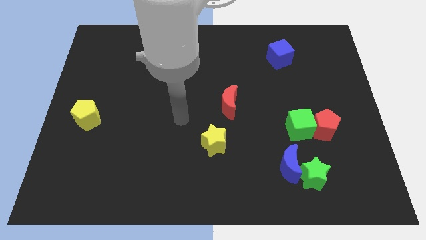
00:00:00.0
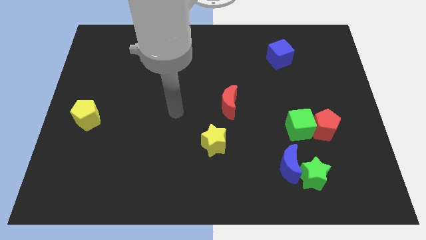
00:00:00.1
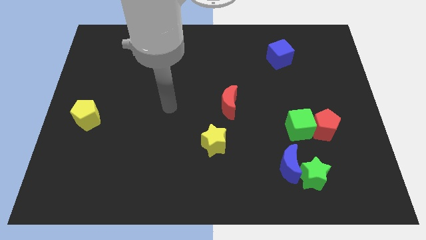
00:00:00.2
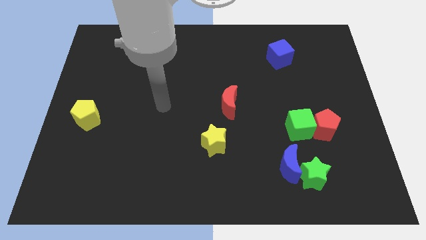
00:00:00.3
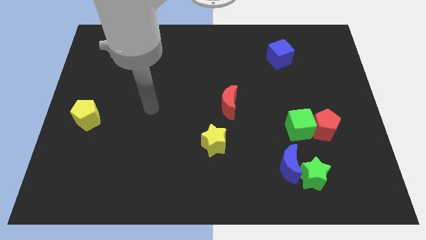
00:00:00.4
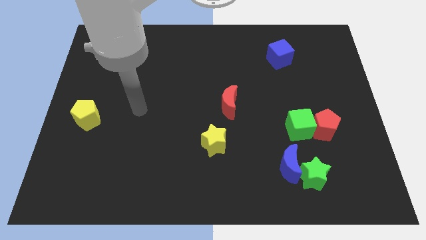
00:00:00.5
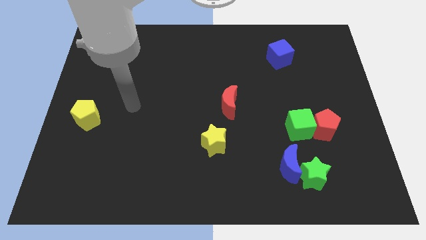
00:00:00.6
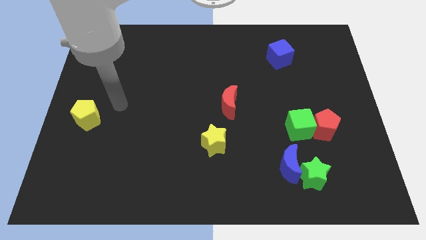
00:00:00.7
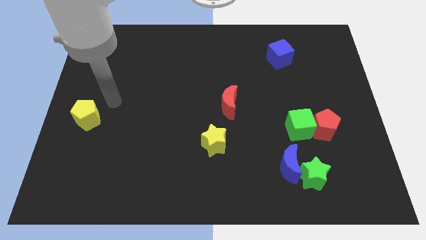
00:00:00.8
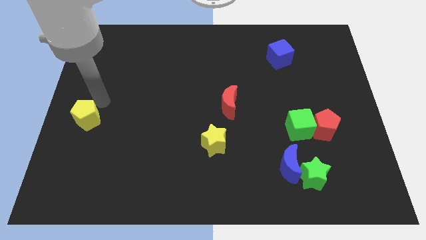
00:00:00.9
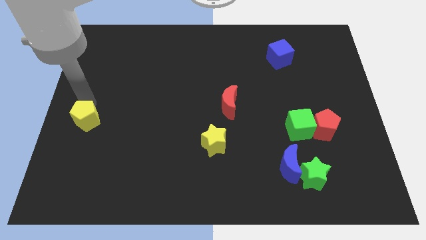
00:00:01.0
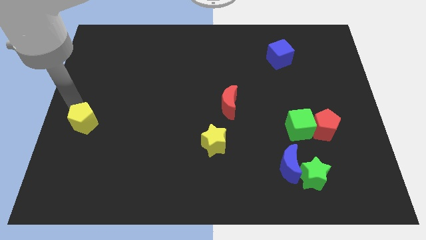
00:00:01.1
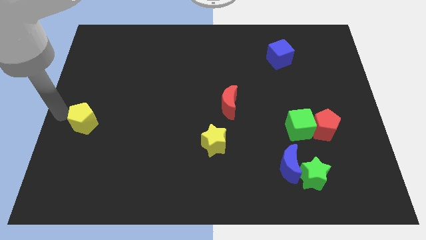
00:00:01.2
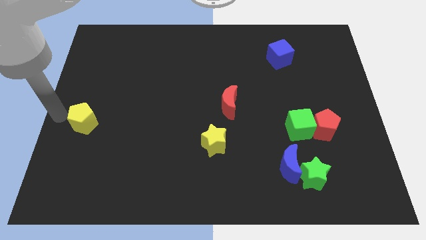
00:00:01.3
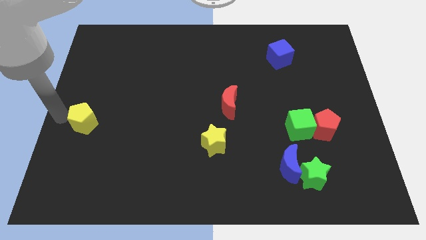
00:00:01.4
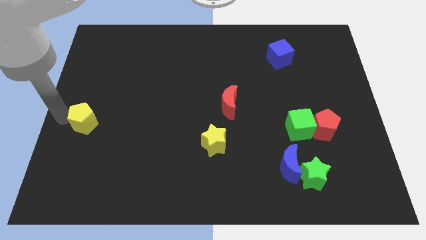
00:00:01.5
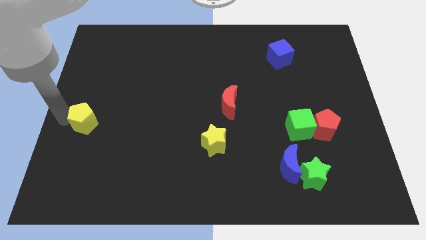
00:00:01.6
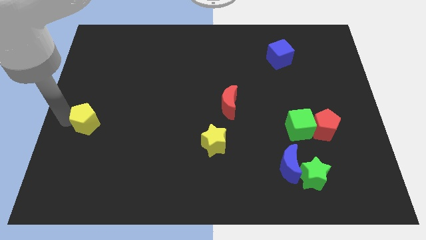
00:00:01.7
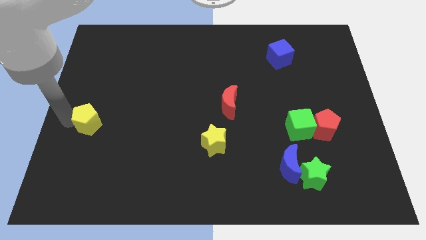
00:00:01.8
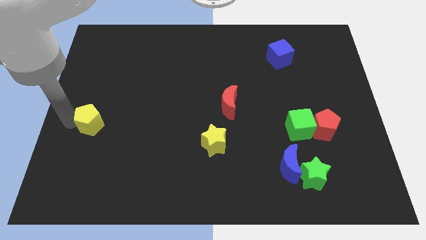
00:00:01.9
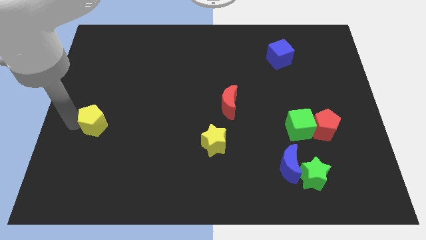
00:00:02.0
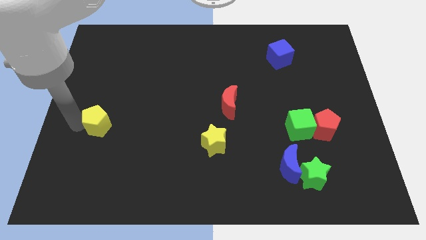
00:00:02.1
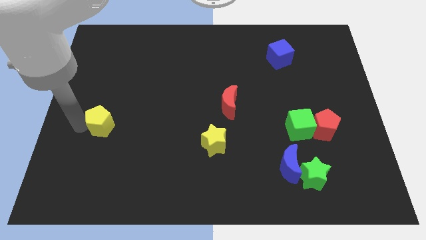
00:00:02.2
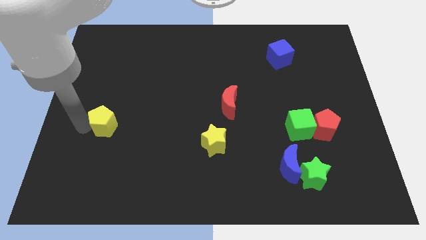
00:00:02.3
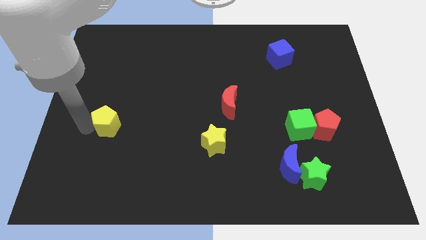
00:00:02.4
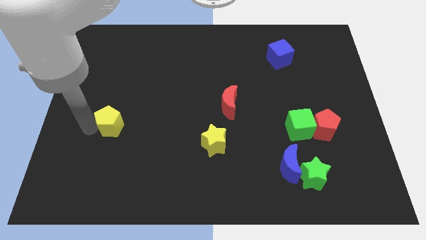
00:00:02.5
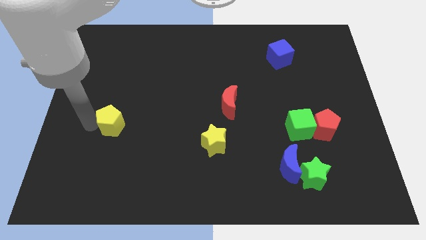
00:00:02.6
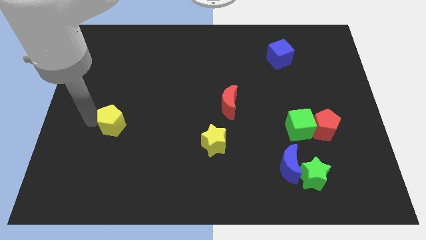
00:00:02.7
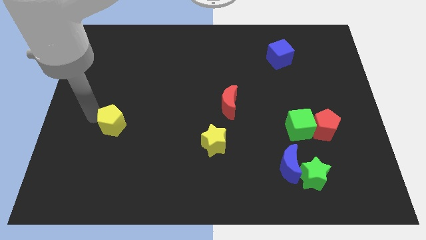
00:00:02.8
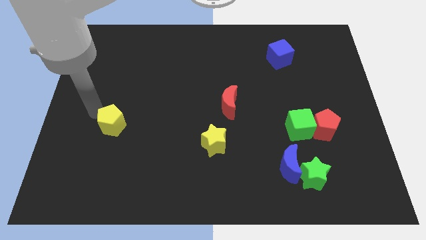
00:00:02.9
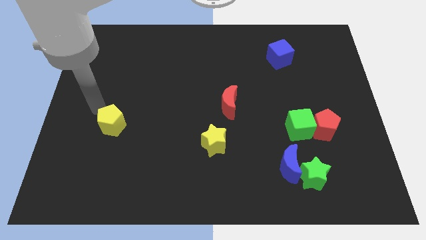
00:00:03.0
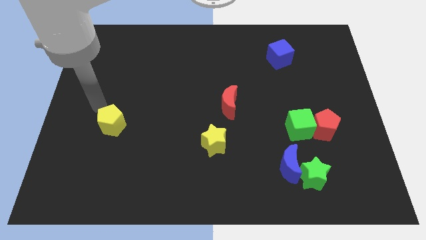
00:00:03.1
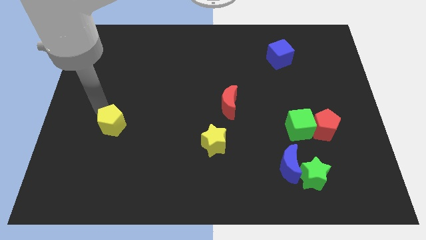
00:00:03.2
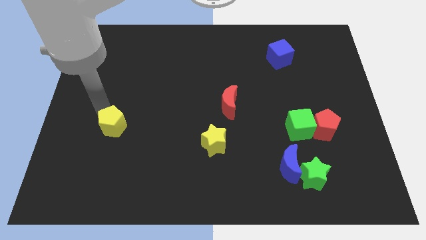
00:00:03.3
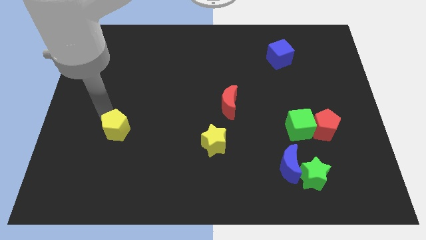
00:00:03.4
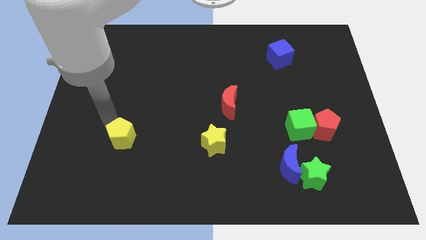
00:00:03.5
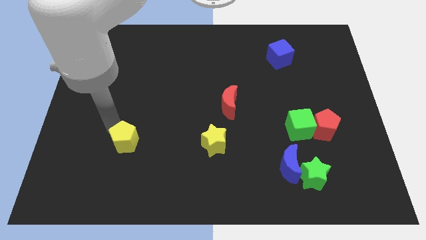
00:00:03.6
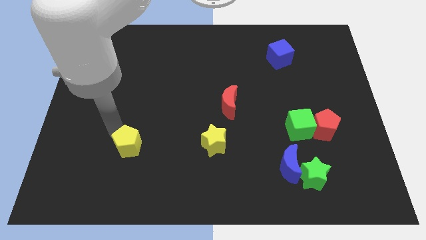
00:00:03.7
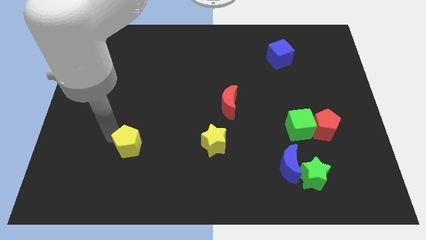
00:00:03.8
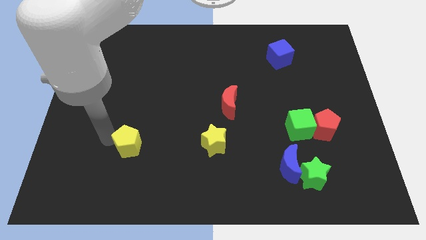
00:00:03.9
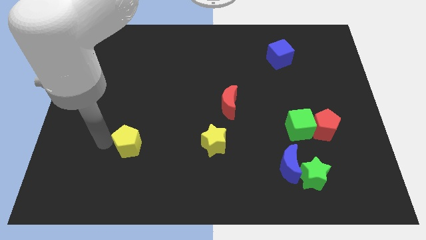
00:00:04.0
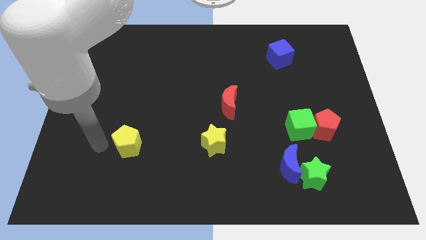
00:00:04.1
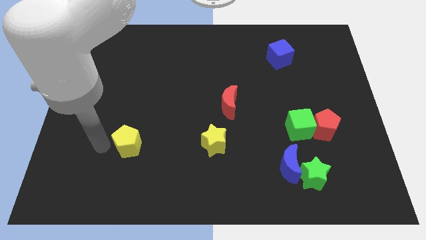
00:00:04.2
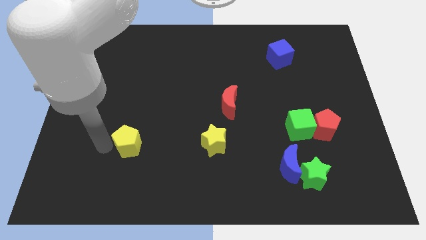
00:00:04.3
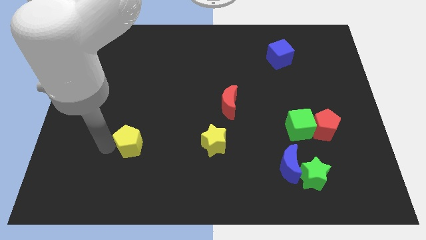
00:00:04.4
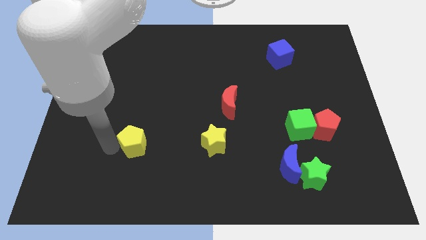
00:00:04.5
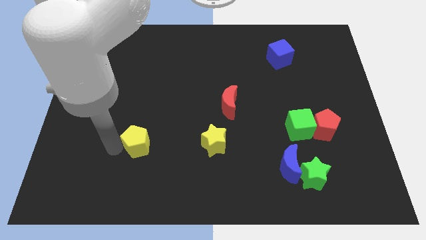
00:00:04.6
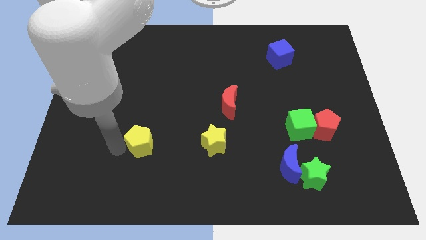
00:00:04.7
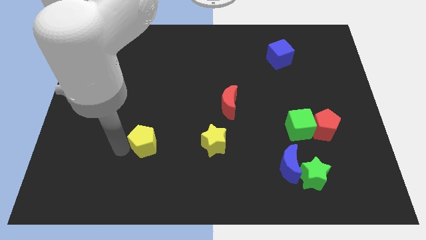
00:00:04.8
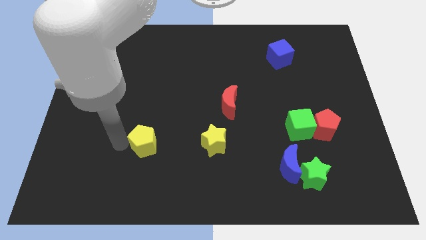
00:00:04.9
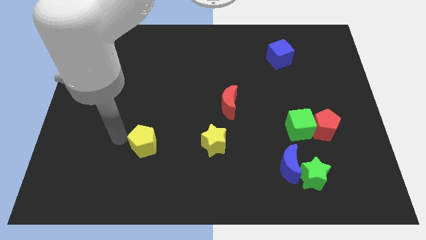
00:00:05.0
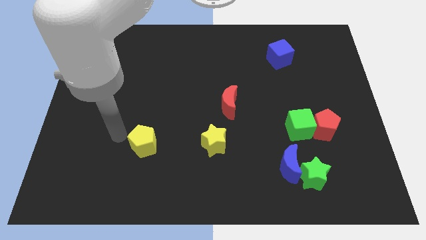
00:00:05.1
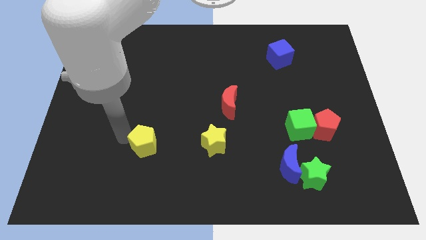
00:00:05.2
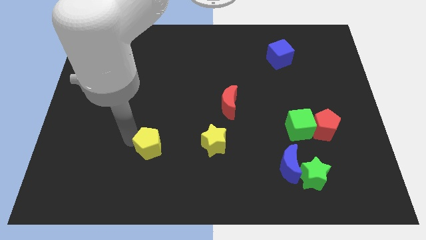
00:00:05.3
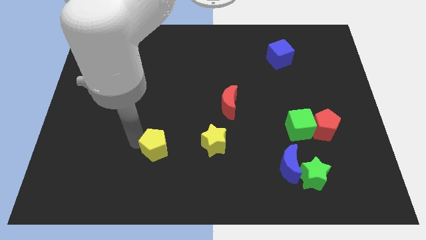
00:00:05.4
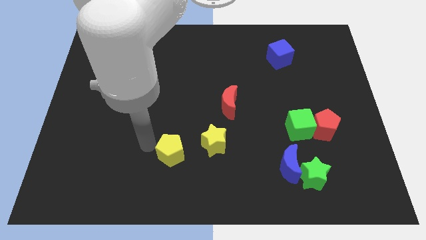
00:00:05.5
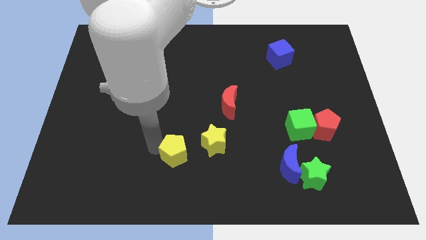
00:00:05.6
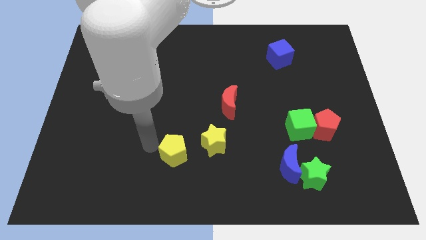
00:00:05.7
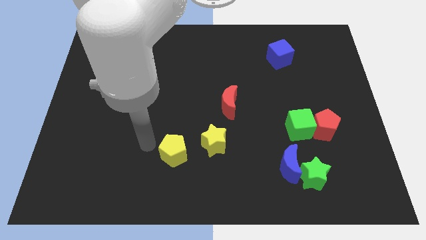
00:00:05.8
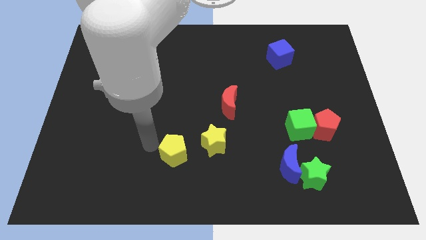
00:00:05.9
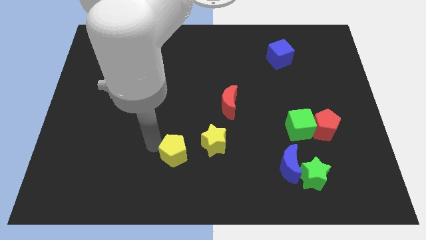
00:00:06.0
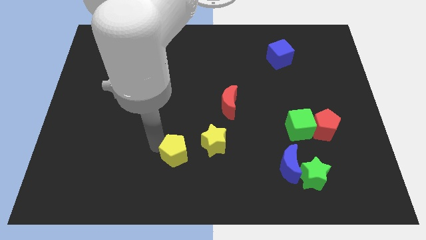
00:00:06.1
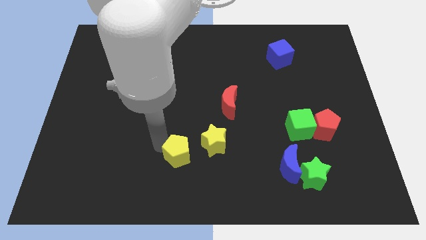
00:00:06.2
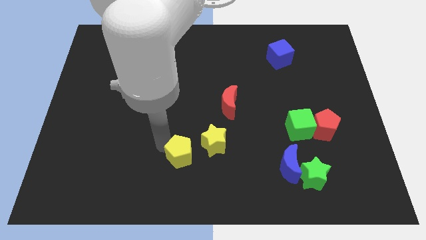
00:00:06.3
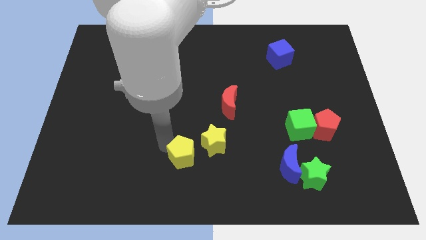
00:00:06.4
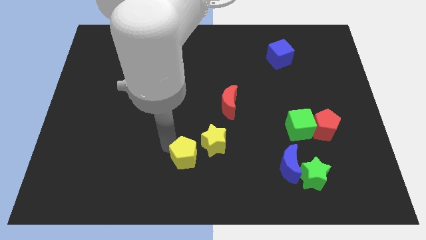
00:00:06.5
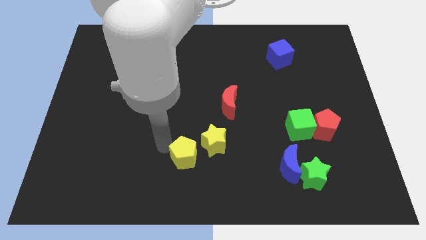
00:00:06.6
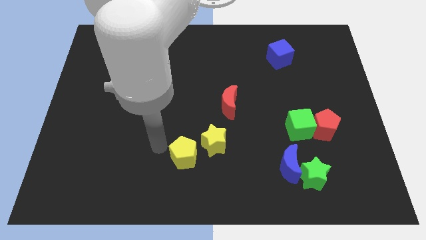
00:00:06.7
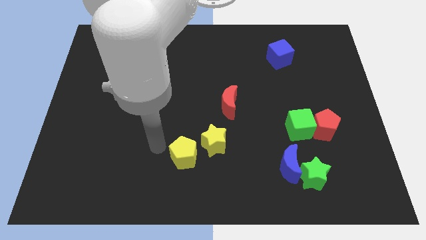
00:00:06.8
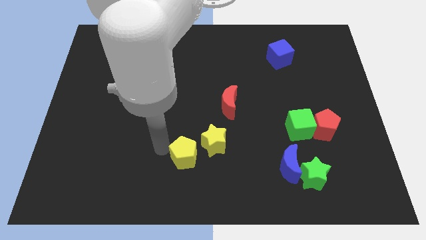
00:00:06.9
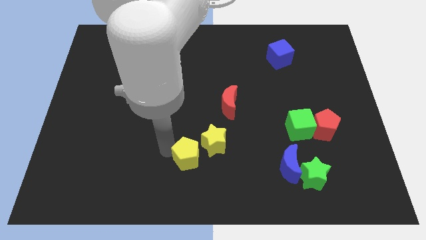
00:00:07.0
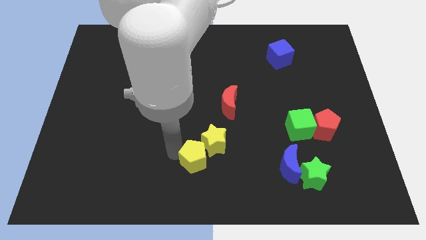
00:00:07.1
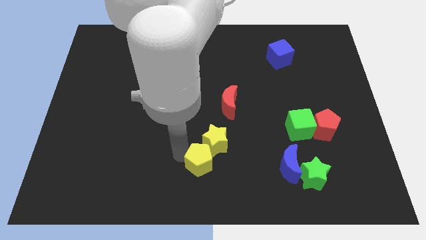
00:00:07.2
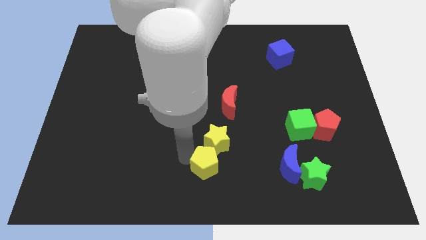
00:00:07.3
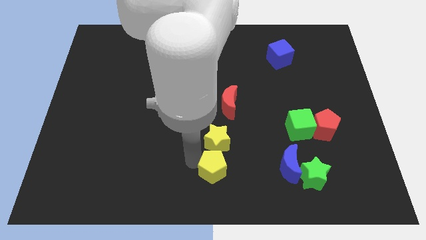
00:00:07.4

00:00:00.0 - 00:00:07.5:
slide the yellow pentagon left of the blue moon
